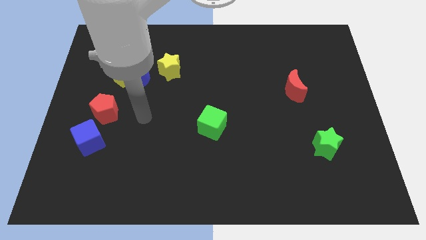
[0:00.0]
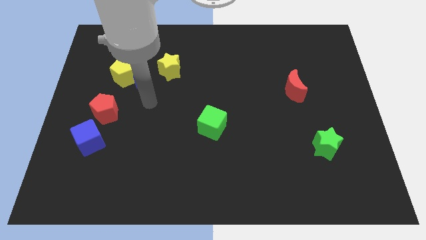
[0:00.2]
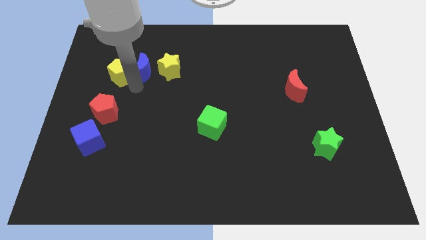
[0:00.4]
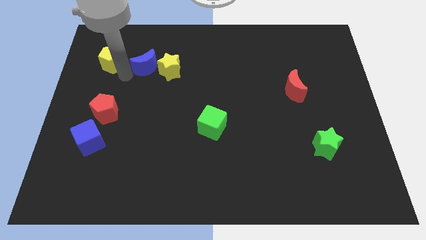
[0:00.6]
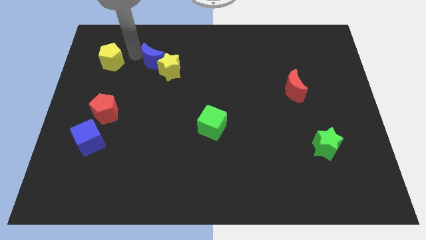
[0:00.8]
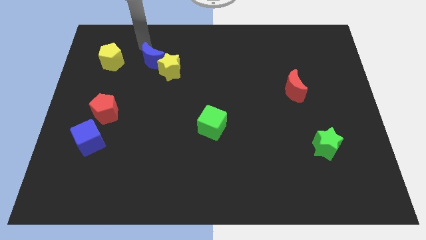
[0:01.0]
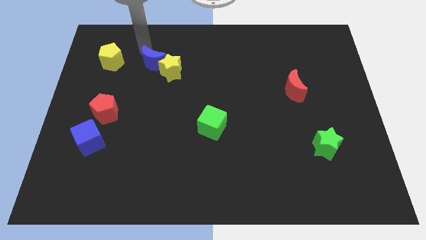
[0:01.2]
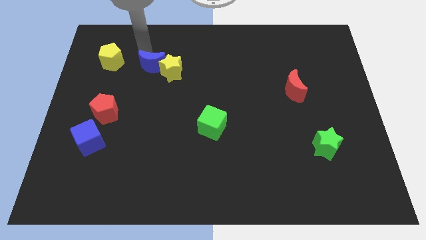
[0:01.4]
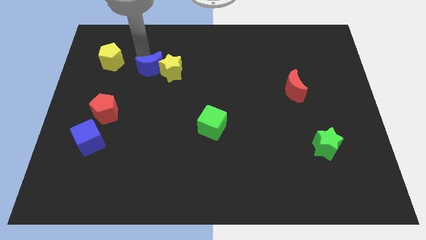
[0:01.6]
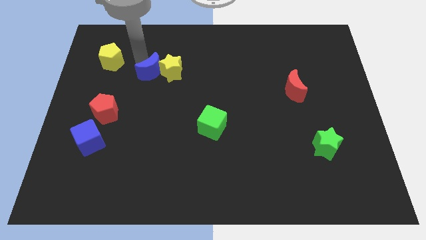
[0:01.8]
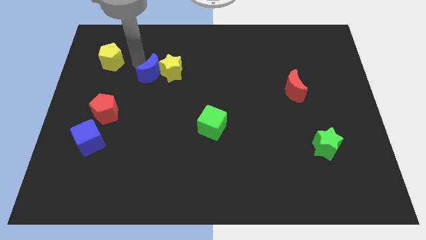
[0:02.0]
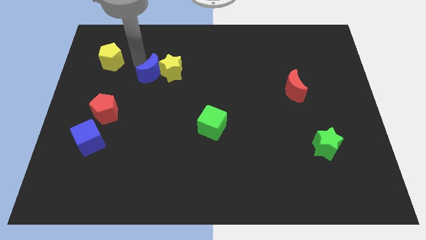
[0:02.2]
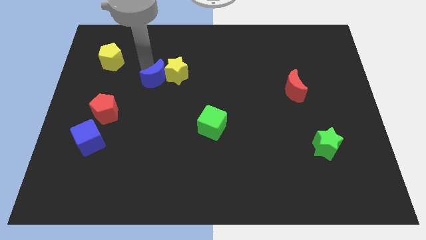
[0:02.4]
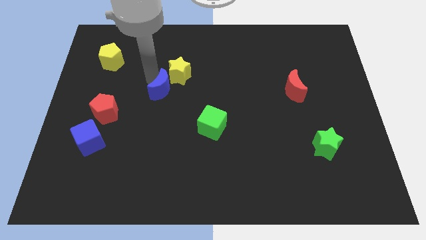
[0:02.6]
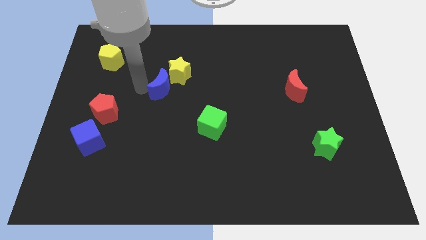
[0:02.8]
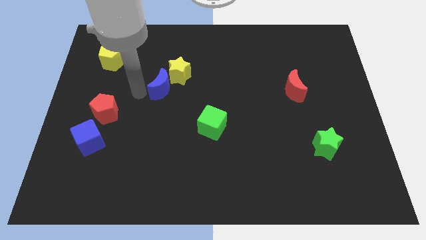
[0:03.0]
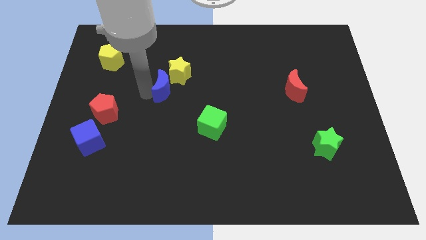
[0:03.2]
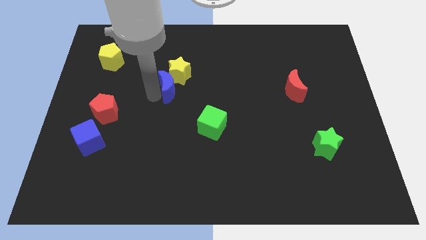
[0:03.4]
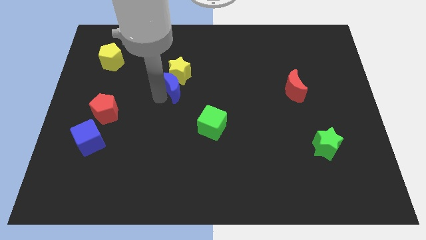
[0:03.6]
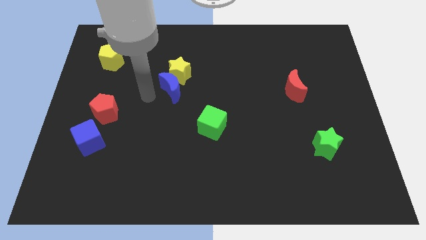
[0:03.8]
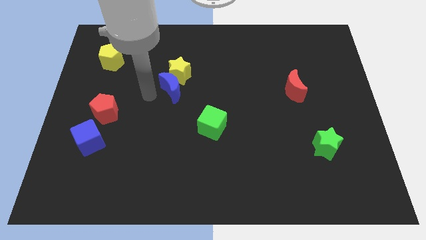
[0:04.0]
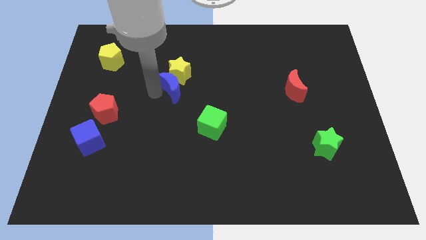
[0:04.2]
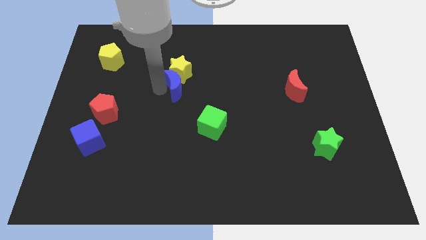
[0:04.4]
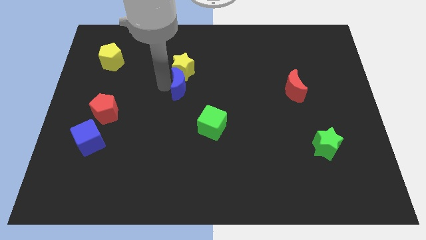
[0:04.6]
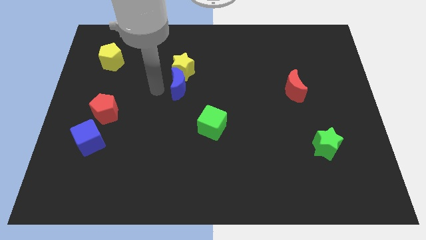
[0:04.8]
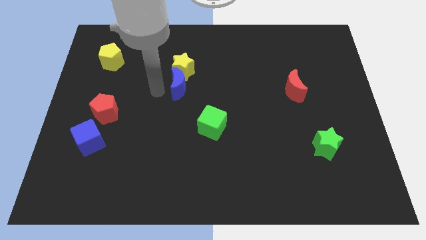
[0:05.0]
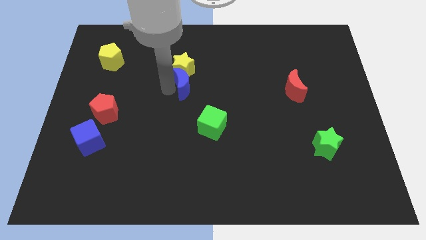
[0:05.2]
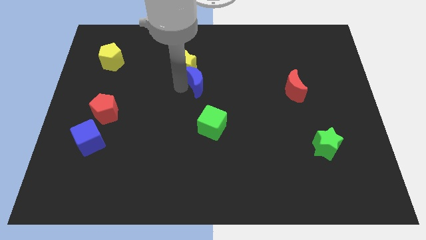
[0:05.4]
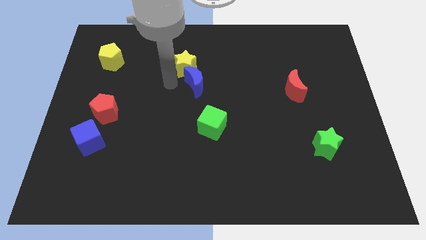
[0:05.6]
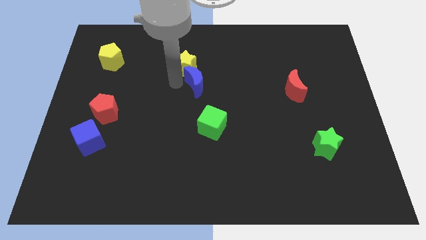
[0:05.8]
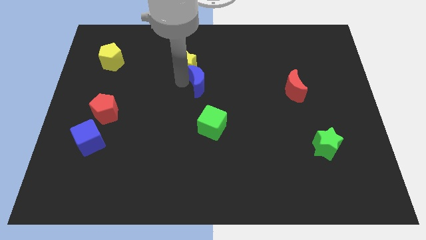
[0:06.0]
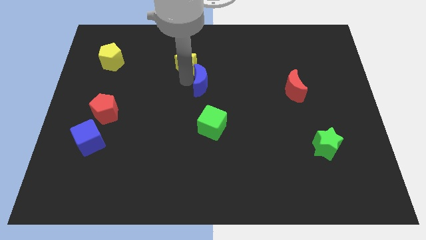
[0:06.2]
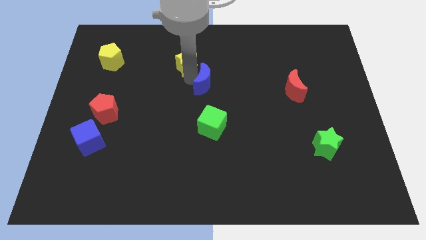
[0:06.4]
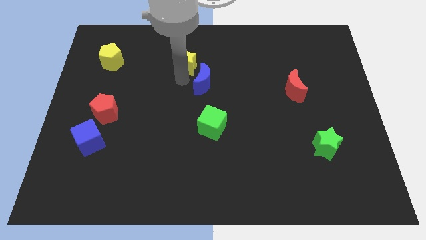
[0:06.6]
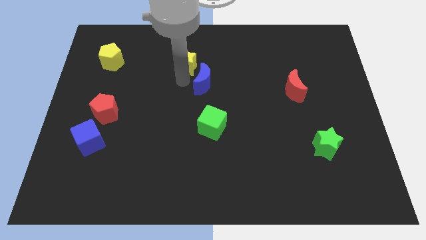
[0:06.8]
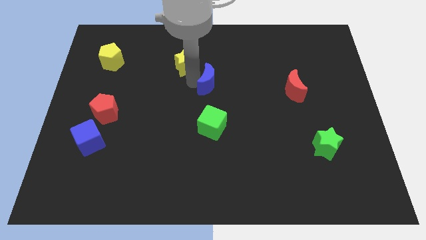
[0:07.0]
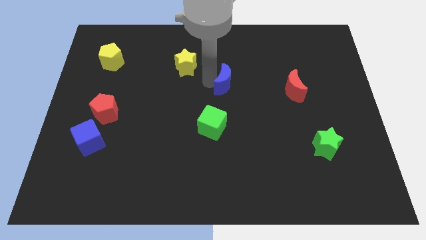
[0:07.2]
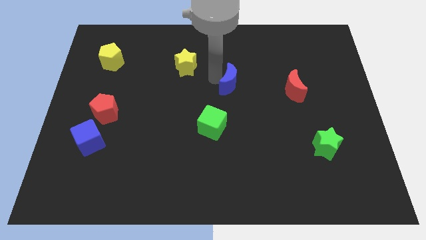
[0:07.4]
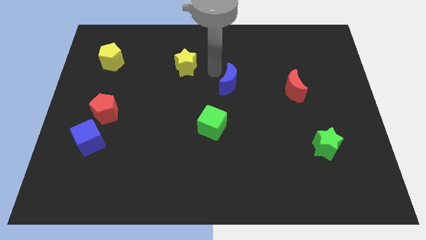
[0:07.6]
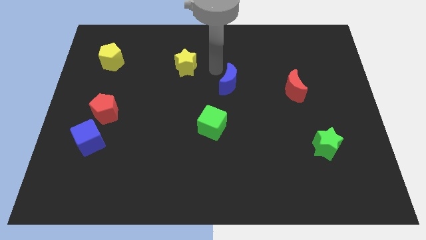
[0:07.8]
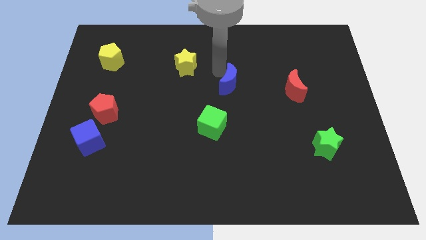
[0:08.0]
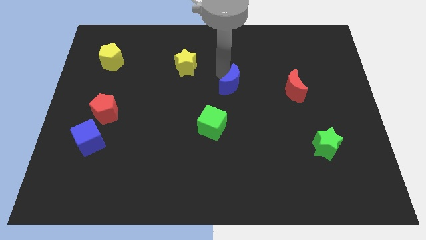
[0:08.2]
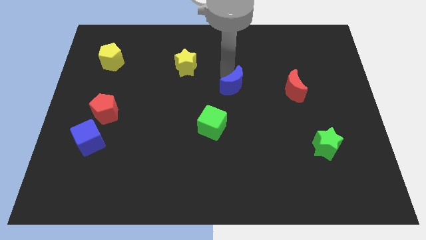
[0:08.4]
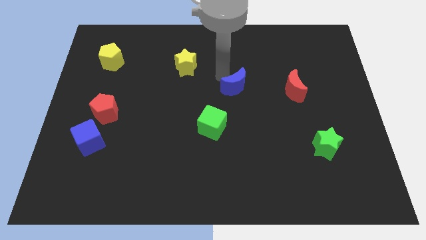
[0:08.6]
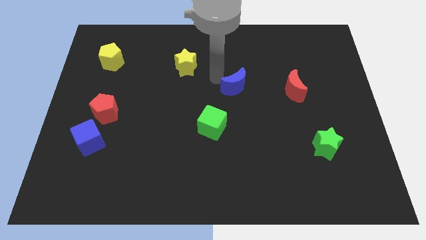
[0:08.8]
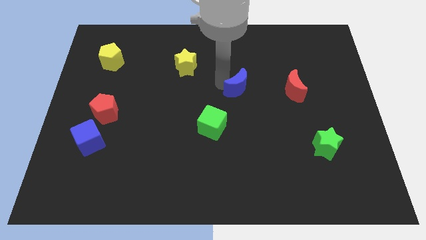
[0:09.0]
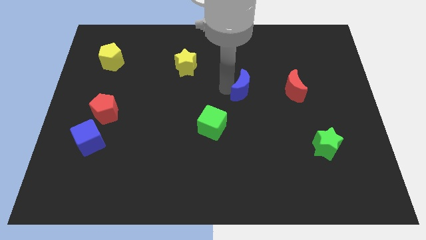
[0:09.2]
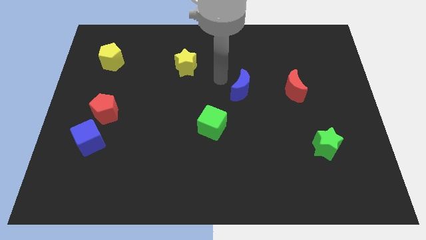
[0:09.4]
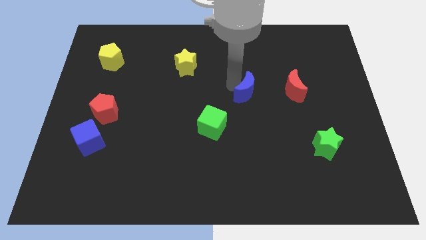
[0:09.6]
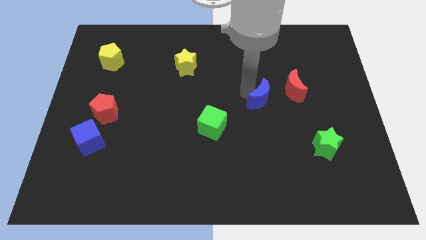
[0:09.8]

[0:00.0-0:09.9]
move the blue moon to the bottom left side of the red moon

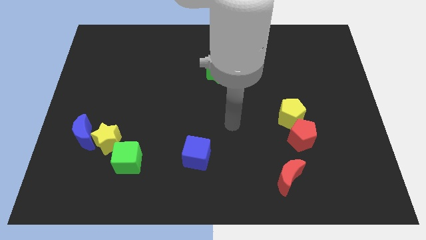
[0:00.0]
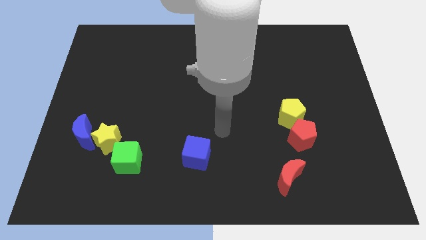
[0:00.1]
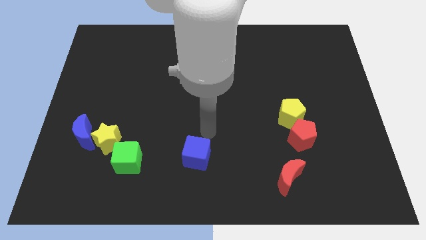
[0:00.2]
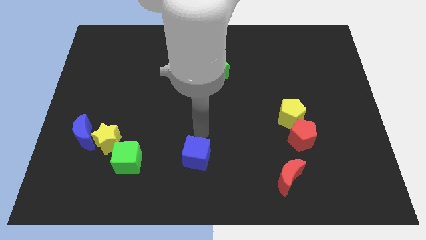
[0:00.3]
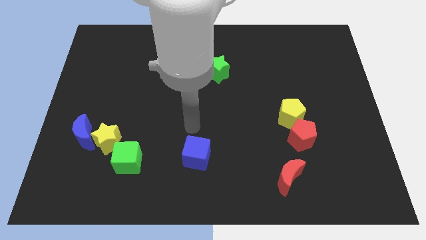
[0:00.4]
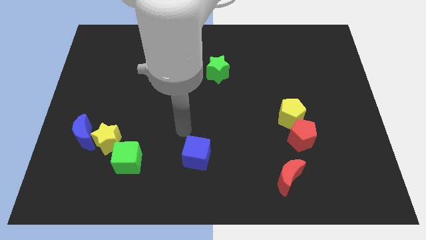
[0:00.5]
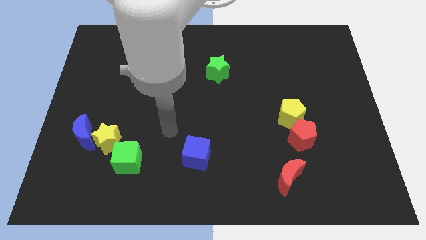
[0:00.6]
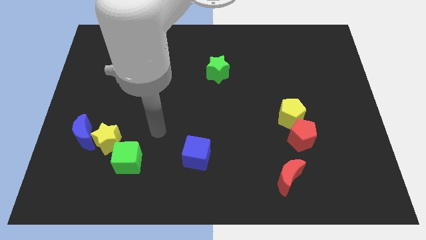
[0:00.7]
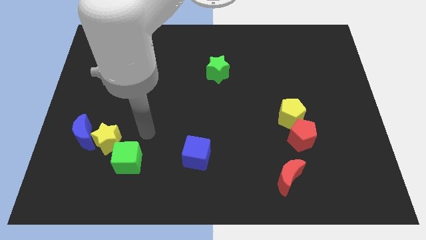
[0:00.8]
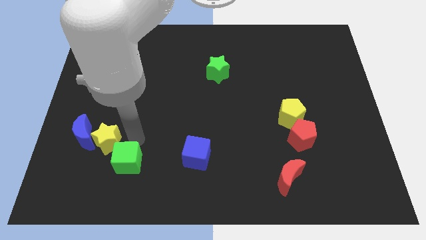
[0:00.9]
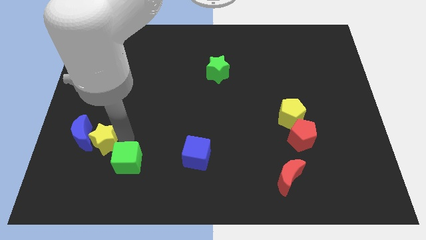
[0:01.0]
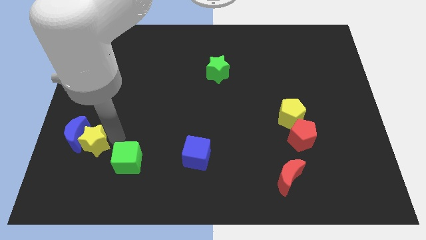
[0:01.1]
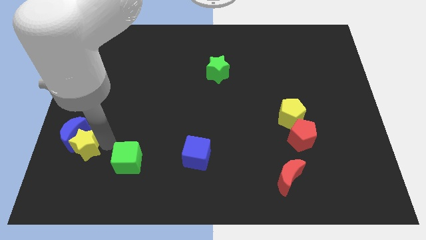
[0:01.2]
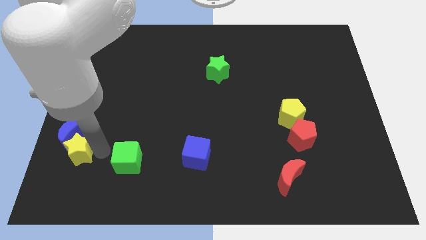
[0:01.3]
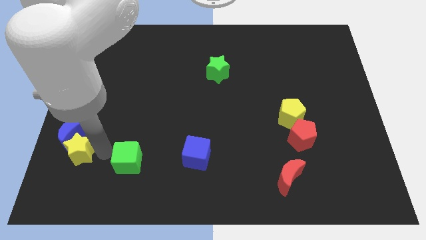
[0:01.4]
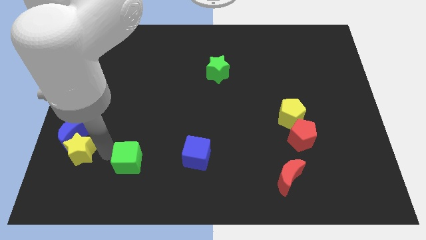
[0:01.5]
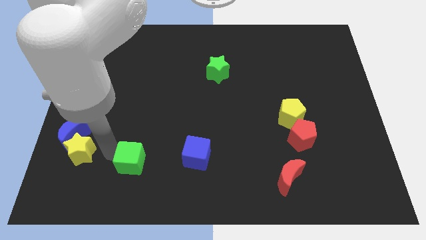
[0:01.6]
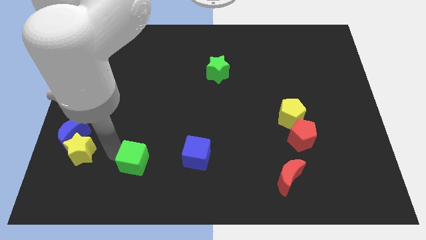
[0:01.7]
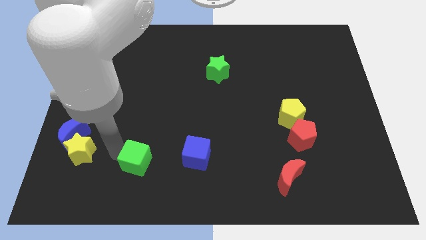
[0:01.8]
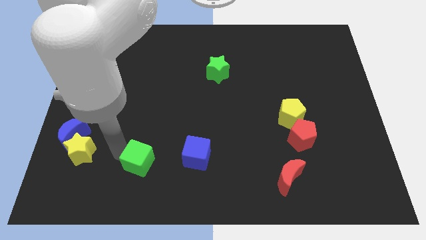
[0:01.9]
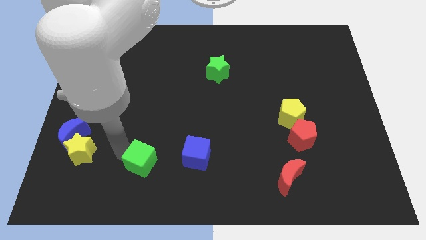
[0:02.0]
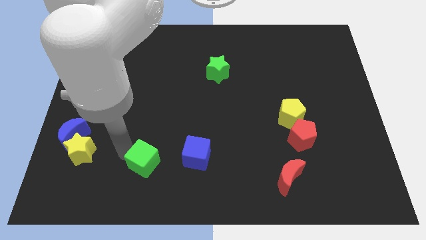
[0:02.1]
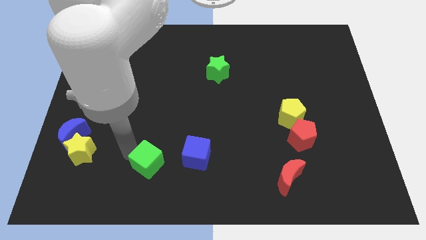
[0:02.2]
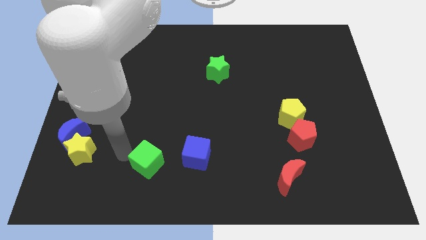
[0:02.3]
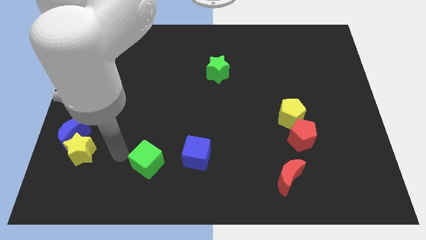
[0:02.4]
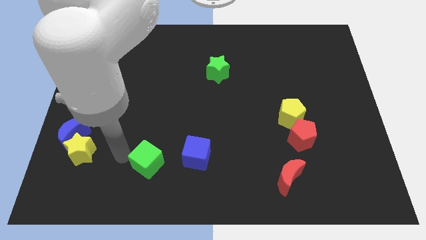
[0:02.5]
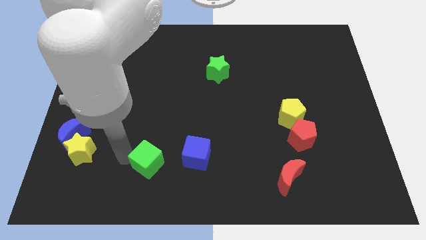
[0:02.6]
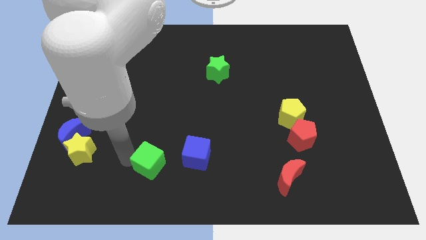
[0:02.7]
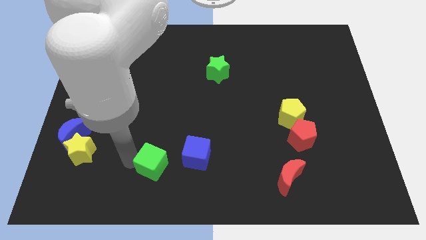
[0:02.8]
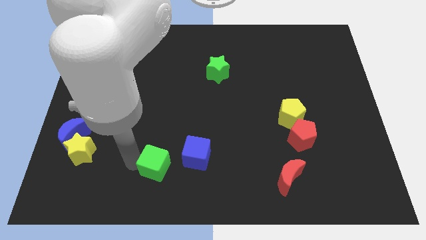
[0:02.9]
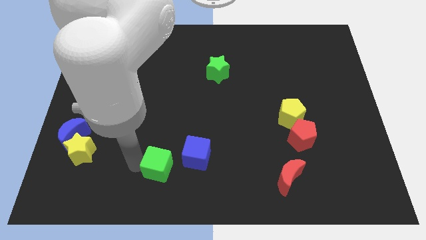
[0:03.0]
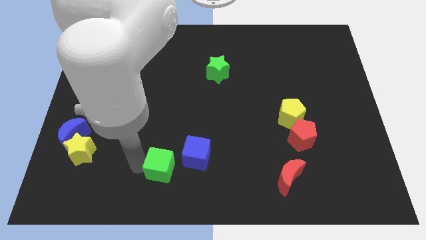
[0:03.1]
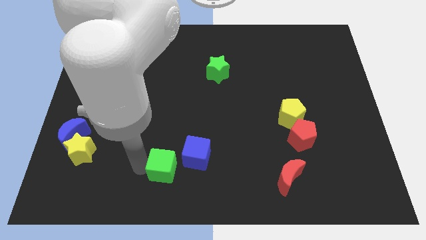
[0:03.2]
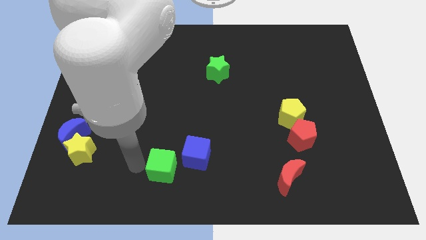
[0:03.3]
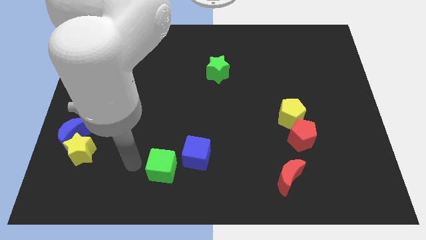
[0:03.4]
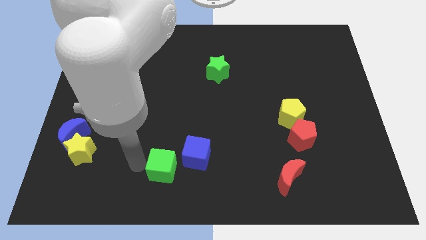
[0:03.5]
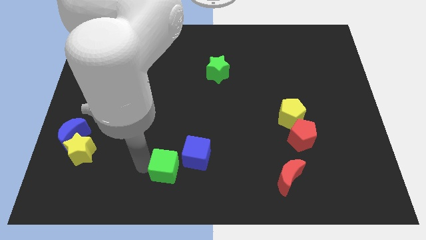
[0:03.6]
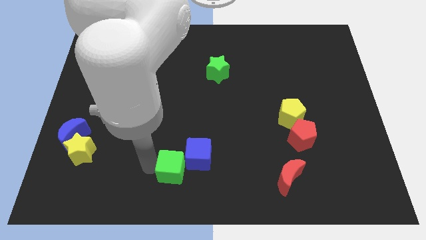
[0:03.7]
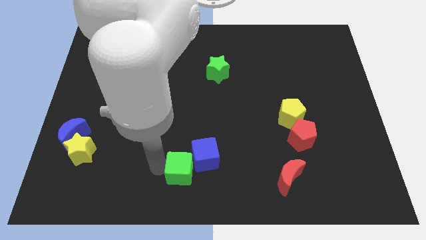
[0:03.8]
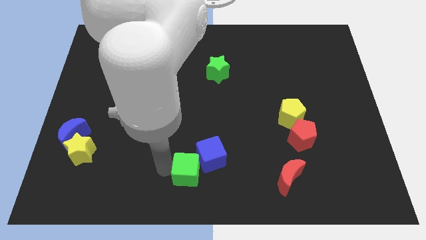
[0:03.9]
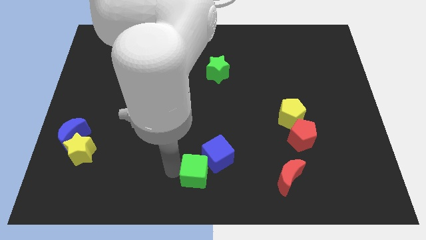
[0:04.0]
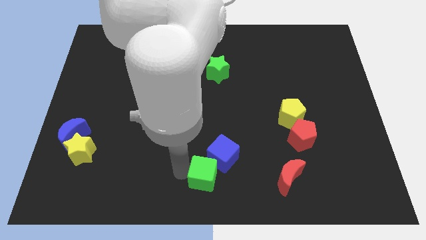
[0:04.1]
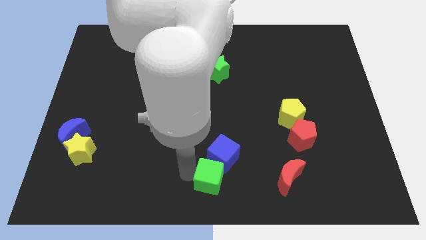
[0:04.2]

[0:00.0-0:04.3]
put the green cube just left of the red moon
